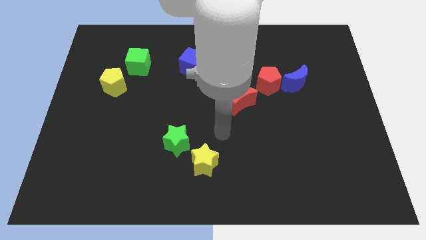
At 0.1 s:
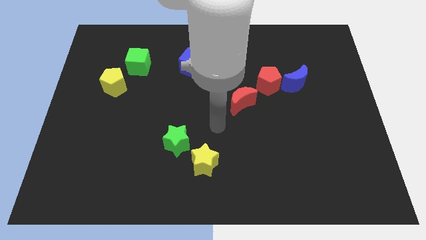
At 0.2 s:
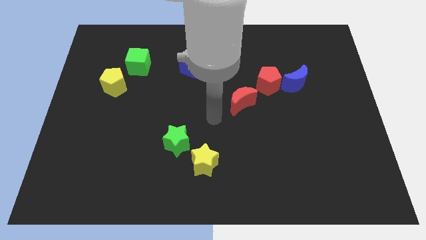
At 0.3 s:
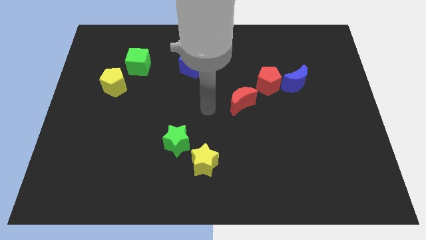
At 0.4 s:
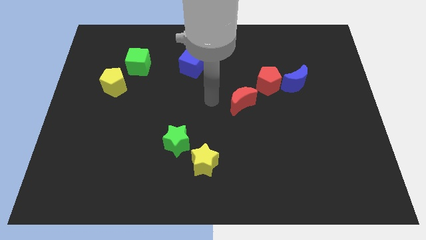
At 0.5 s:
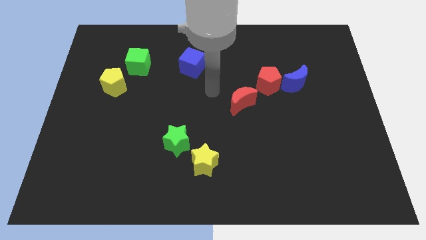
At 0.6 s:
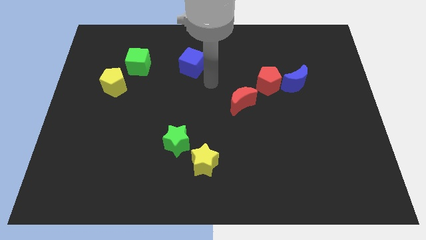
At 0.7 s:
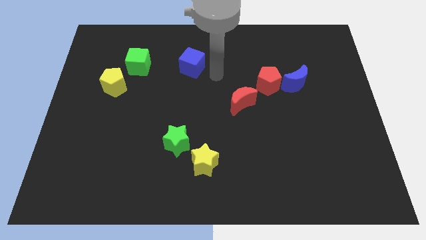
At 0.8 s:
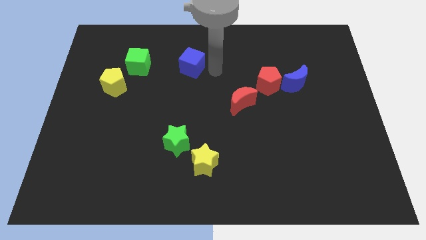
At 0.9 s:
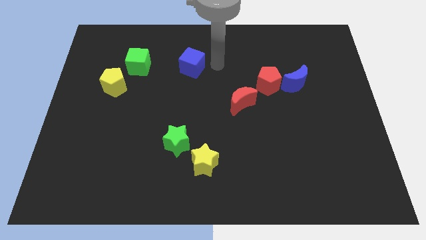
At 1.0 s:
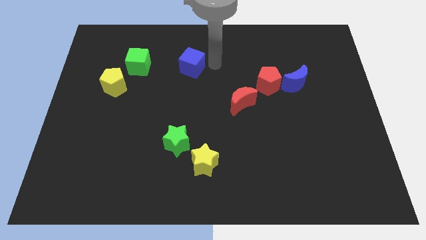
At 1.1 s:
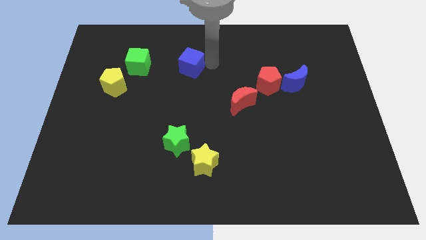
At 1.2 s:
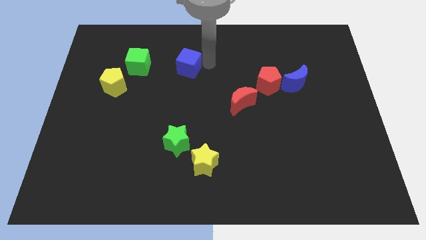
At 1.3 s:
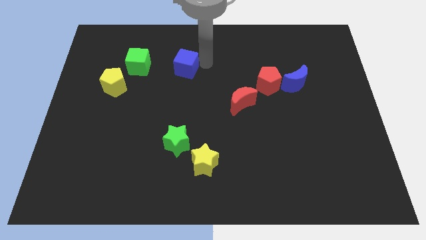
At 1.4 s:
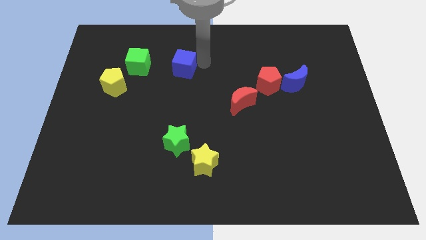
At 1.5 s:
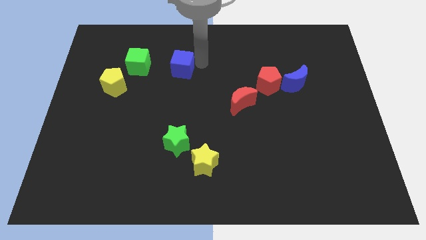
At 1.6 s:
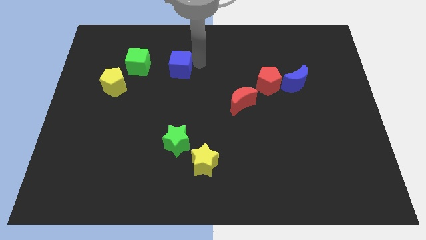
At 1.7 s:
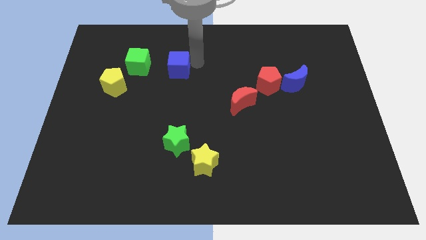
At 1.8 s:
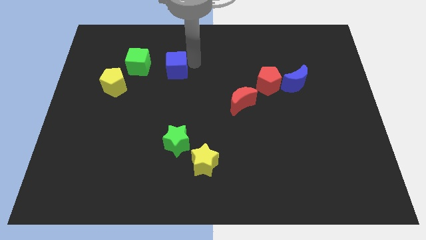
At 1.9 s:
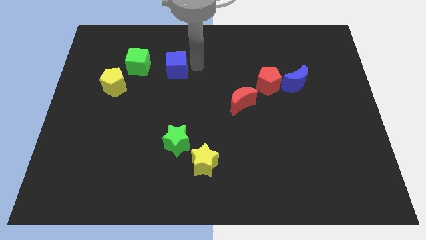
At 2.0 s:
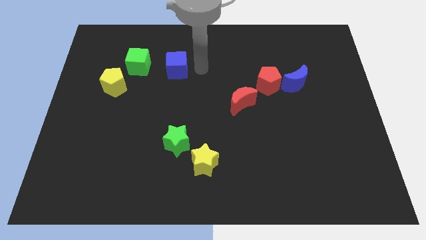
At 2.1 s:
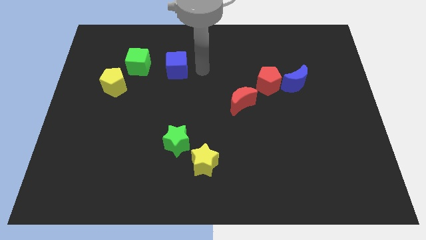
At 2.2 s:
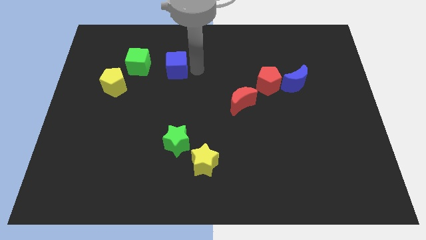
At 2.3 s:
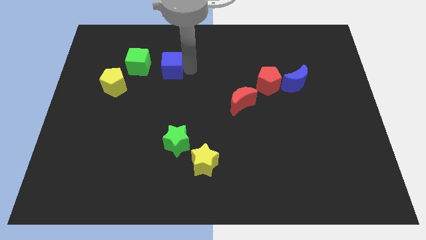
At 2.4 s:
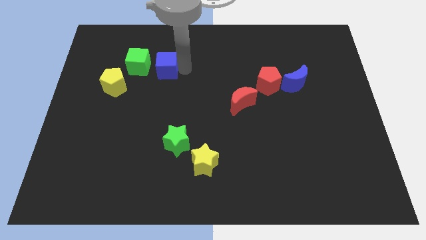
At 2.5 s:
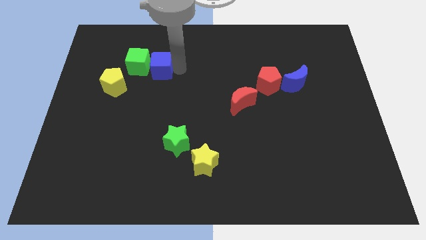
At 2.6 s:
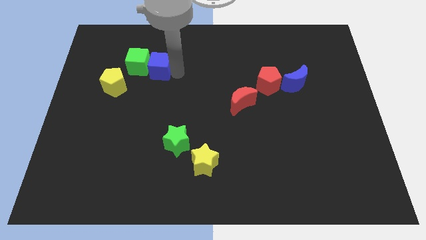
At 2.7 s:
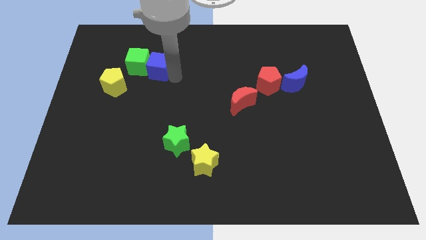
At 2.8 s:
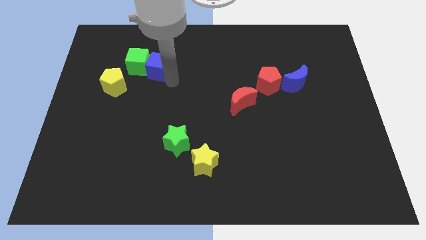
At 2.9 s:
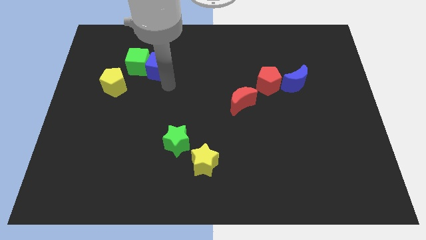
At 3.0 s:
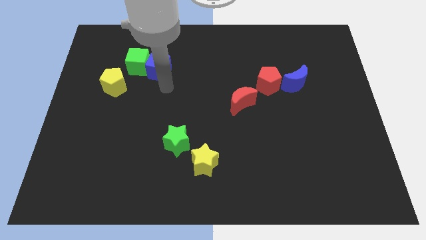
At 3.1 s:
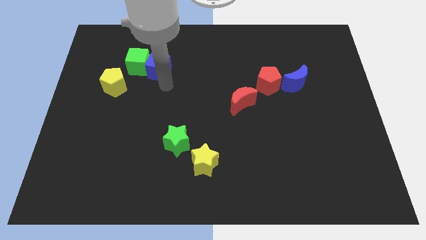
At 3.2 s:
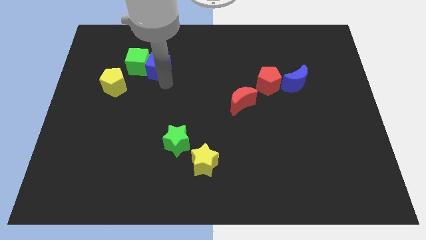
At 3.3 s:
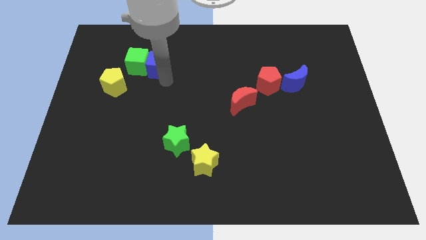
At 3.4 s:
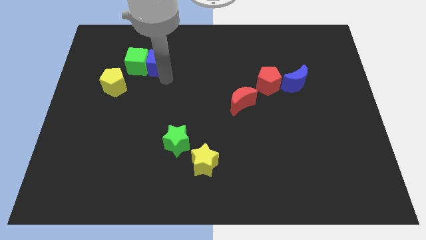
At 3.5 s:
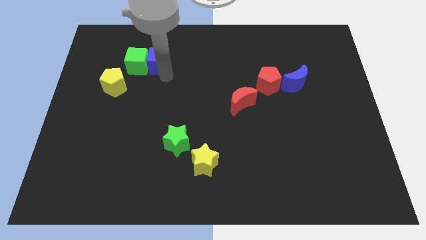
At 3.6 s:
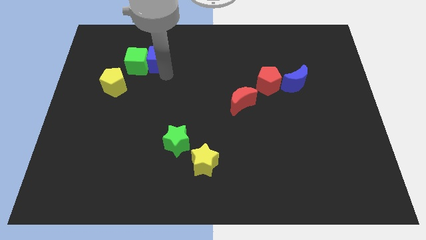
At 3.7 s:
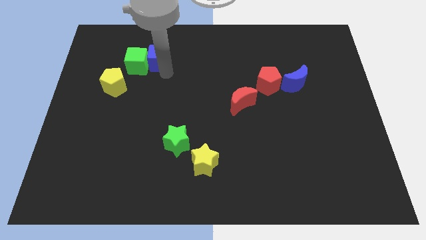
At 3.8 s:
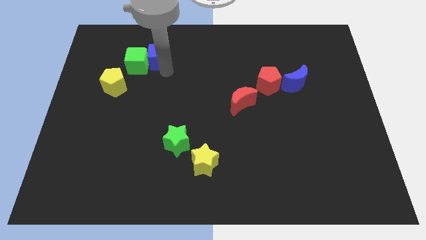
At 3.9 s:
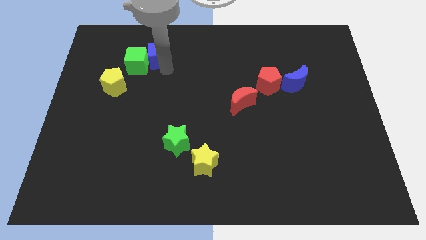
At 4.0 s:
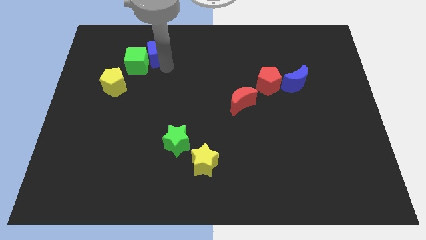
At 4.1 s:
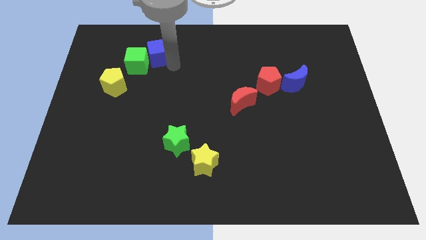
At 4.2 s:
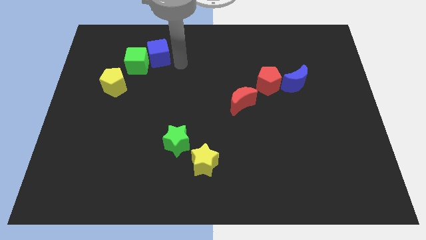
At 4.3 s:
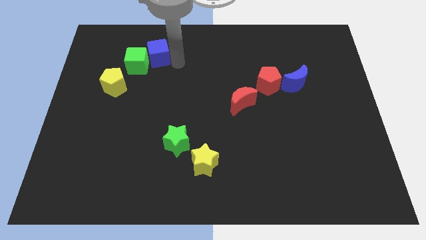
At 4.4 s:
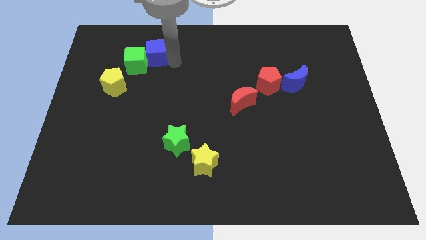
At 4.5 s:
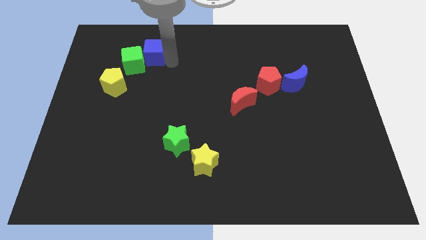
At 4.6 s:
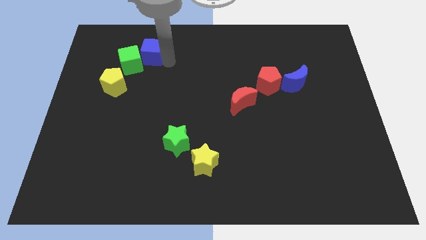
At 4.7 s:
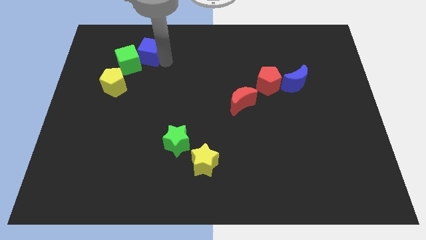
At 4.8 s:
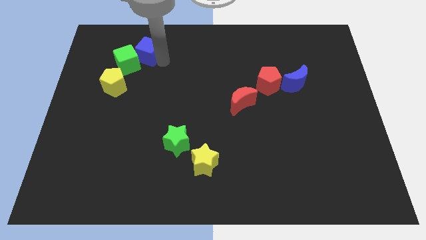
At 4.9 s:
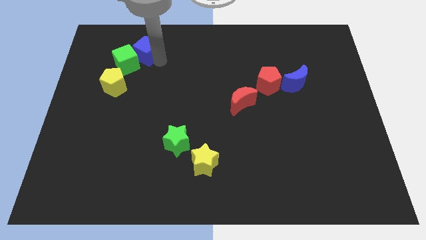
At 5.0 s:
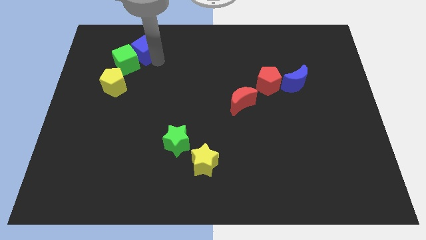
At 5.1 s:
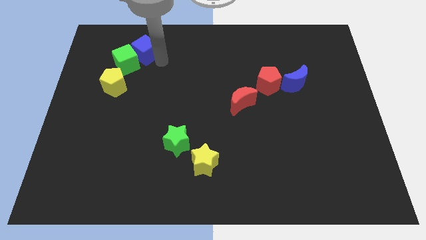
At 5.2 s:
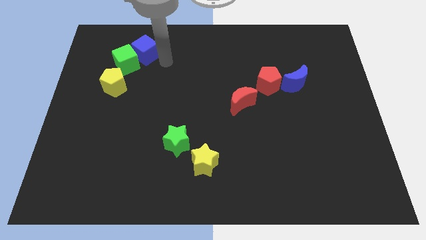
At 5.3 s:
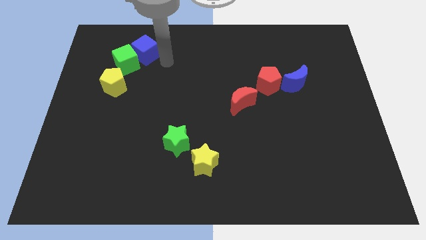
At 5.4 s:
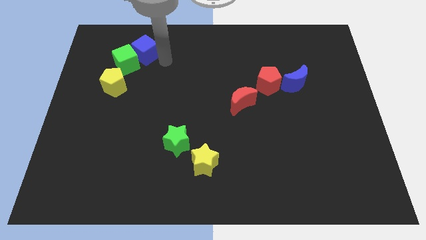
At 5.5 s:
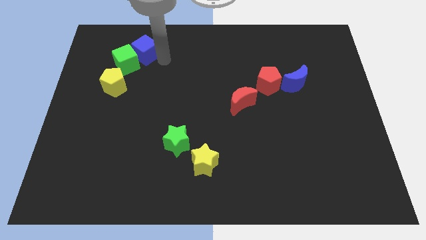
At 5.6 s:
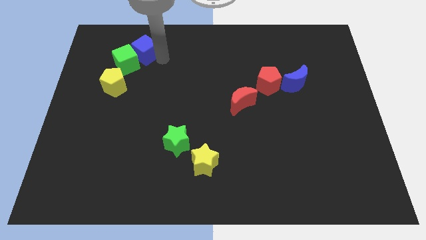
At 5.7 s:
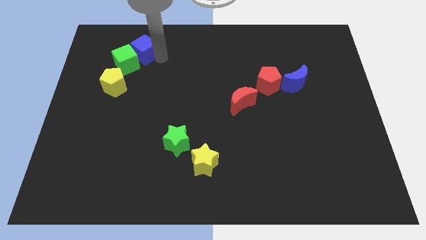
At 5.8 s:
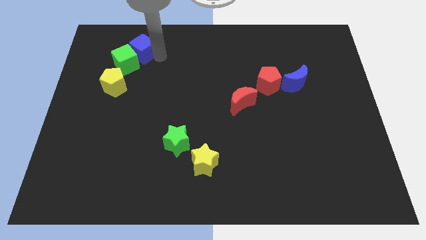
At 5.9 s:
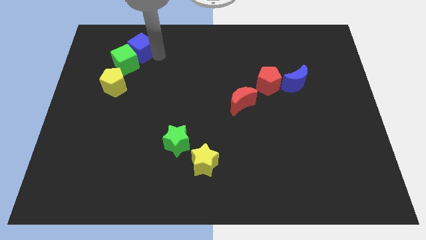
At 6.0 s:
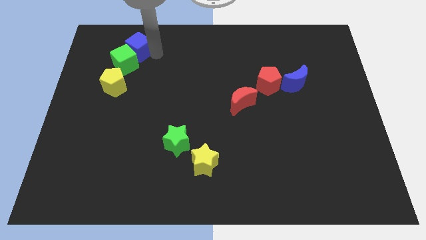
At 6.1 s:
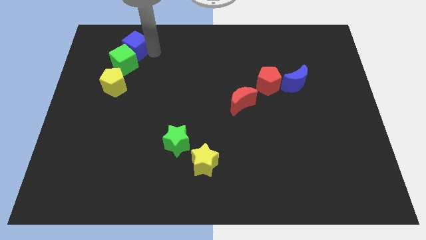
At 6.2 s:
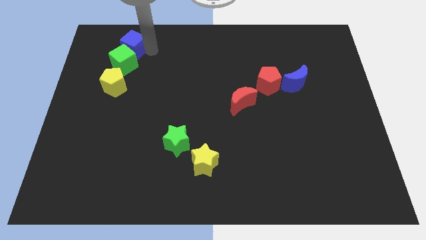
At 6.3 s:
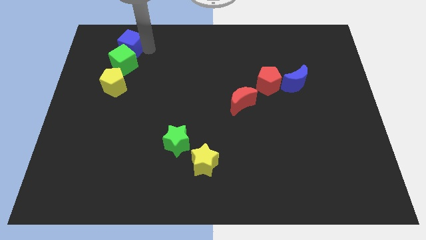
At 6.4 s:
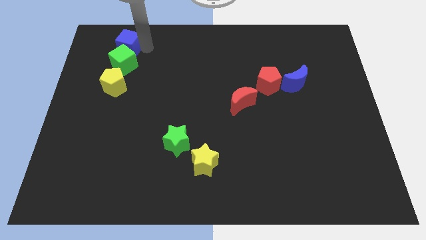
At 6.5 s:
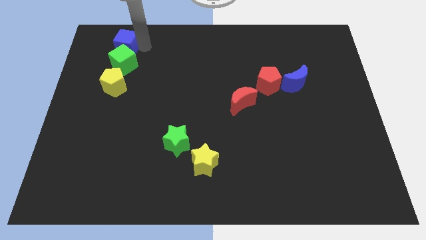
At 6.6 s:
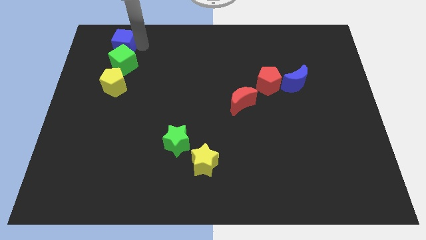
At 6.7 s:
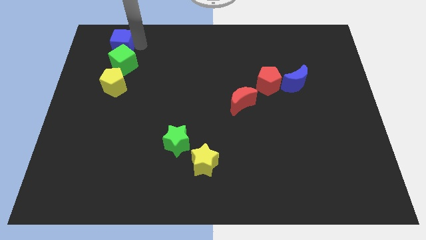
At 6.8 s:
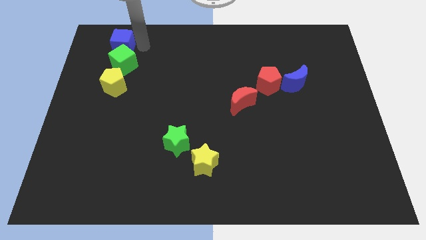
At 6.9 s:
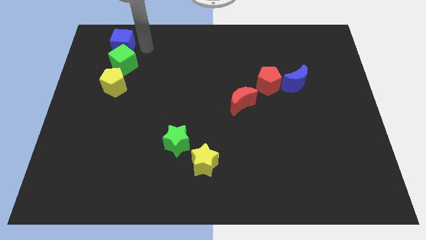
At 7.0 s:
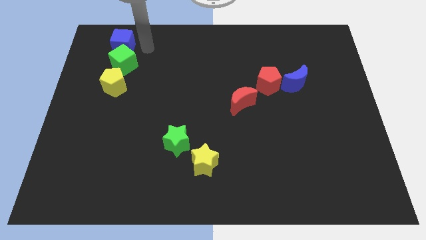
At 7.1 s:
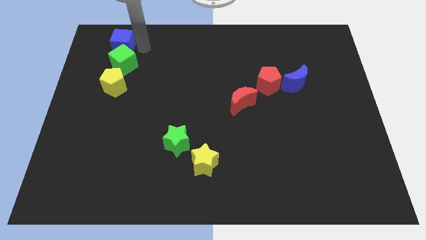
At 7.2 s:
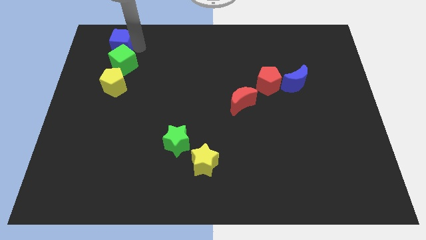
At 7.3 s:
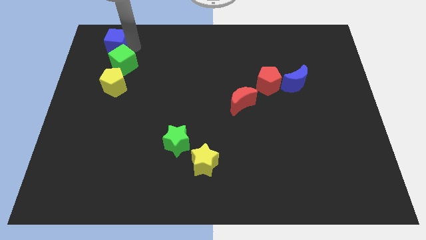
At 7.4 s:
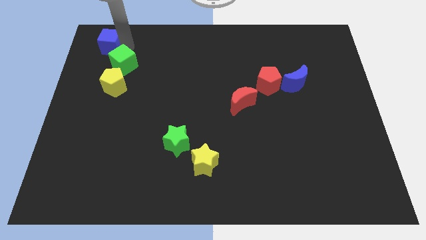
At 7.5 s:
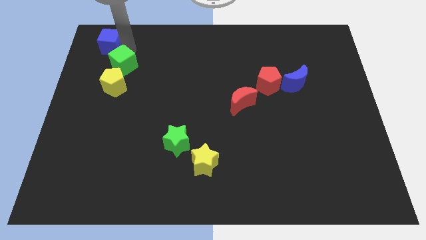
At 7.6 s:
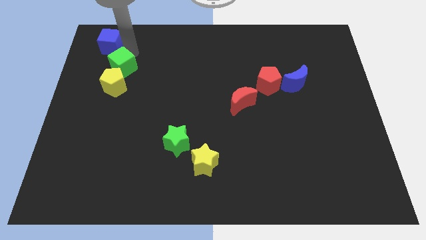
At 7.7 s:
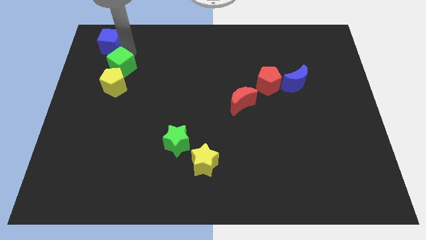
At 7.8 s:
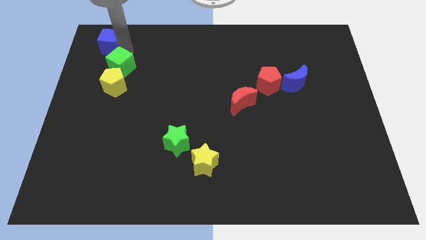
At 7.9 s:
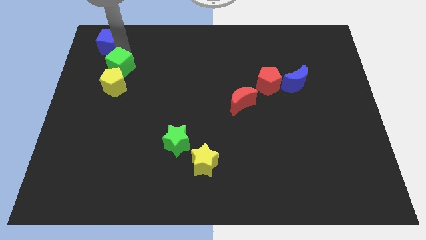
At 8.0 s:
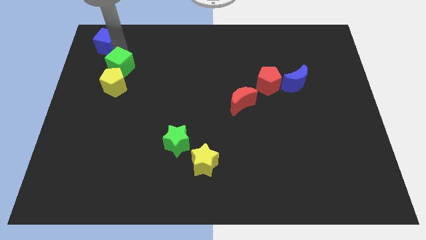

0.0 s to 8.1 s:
move the blue cube to the upper left corner
